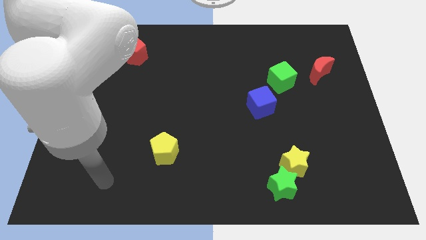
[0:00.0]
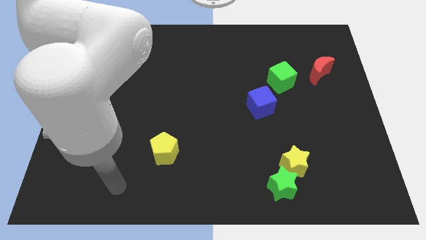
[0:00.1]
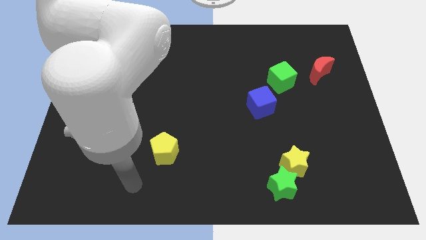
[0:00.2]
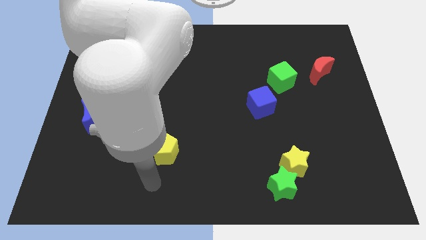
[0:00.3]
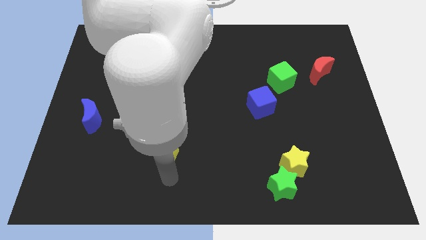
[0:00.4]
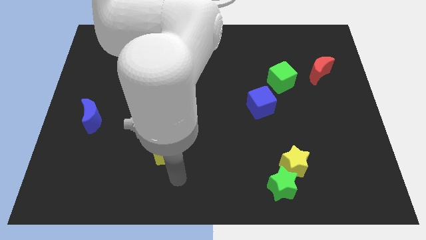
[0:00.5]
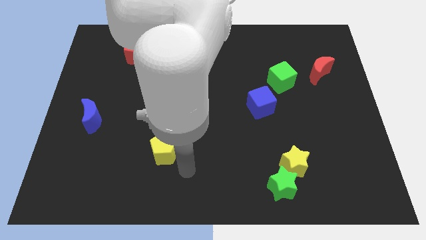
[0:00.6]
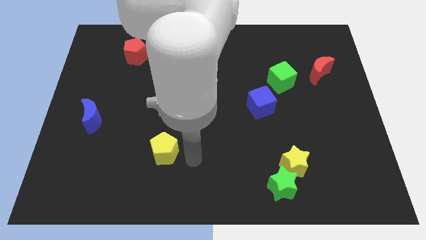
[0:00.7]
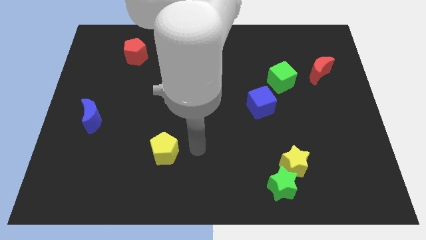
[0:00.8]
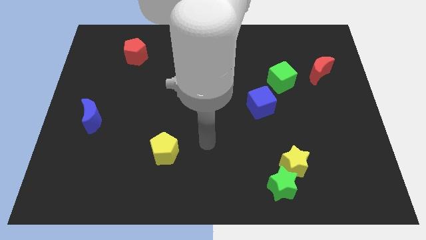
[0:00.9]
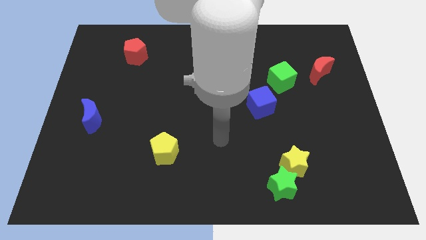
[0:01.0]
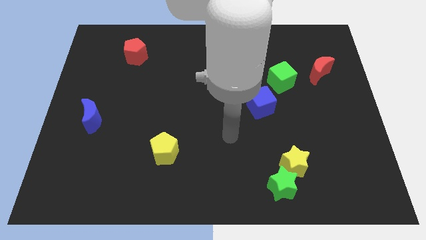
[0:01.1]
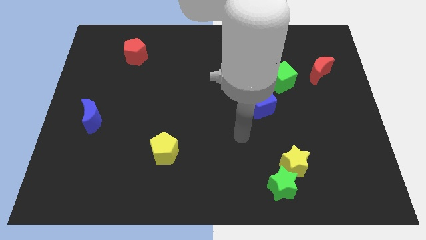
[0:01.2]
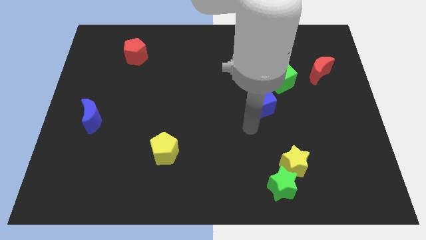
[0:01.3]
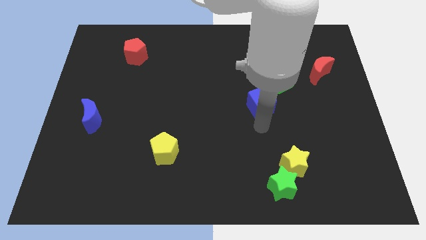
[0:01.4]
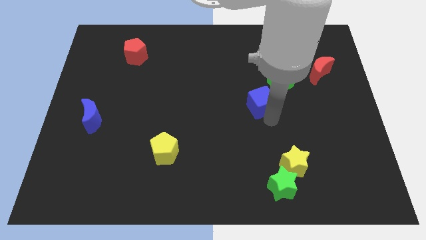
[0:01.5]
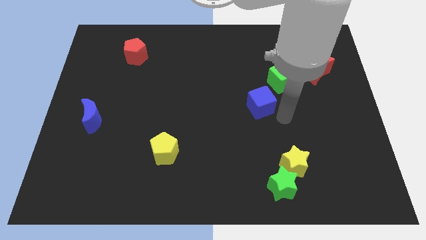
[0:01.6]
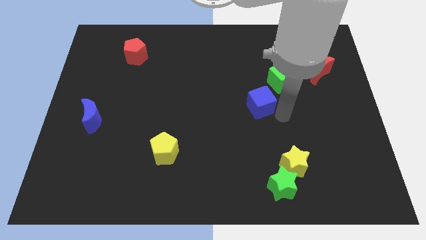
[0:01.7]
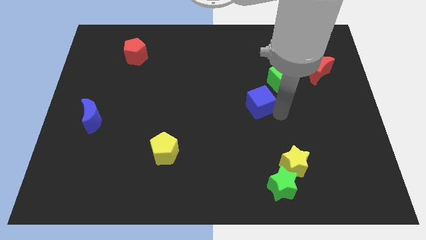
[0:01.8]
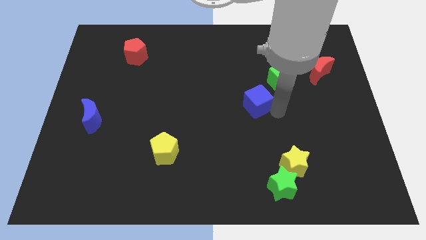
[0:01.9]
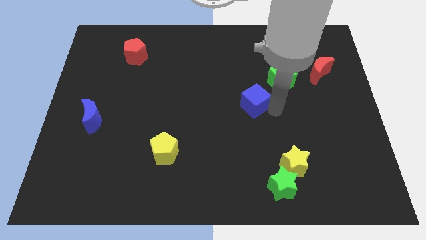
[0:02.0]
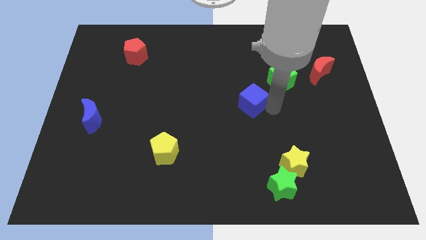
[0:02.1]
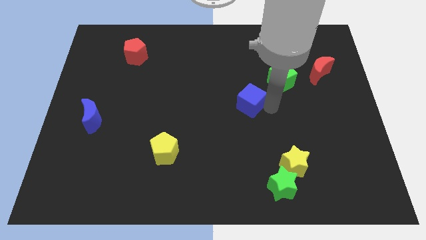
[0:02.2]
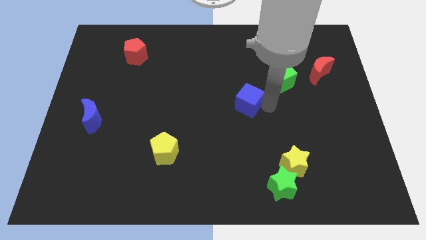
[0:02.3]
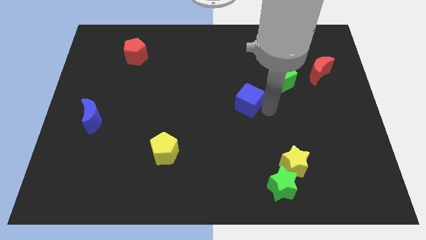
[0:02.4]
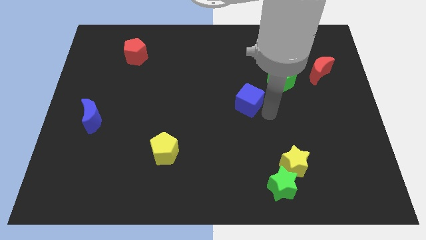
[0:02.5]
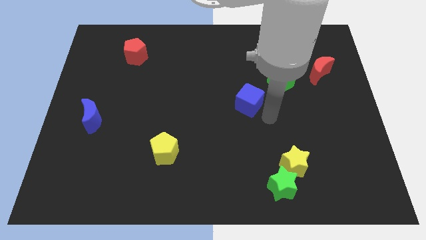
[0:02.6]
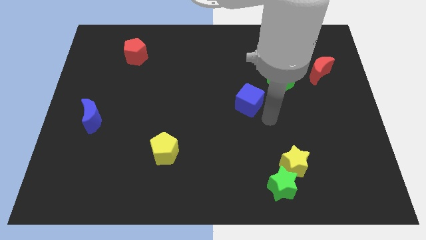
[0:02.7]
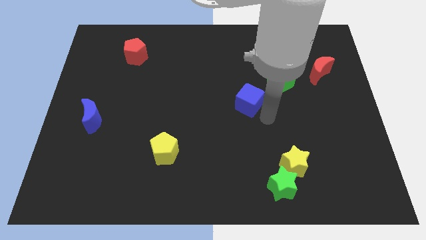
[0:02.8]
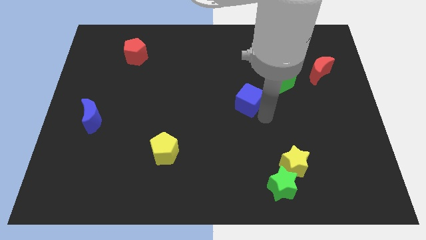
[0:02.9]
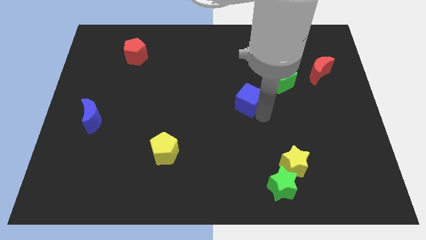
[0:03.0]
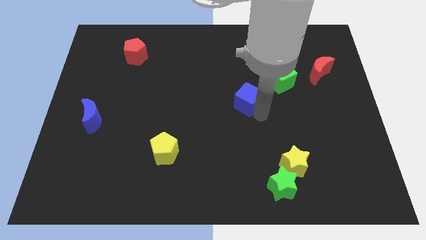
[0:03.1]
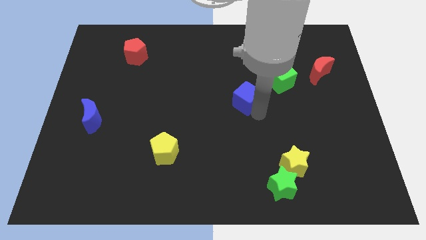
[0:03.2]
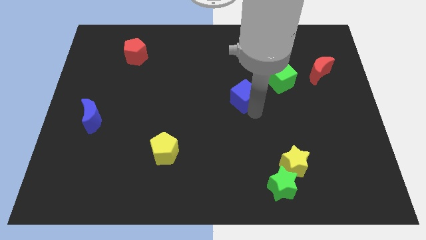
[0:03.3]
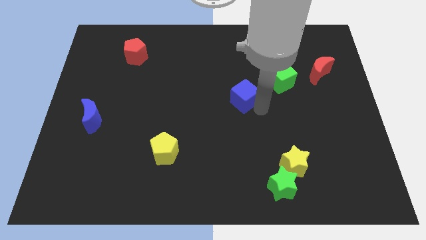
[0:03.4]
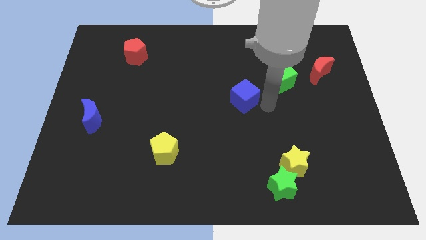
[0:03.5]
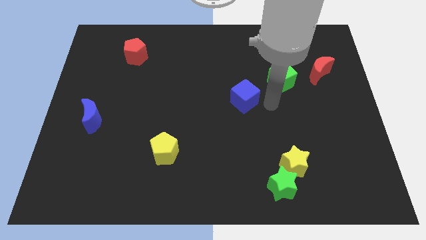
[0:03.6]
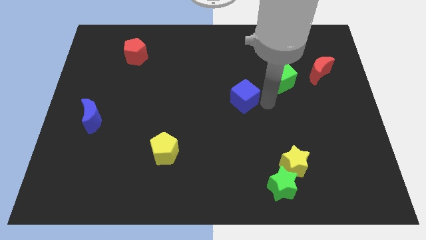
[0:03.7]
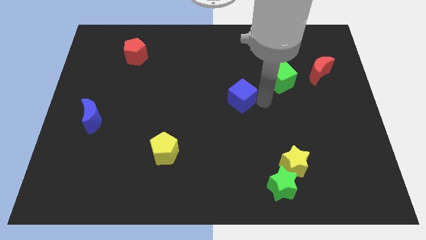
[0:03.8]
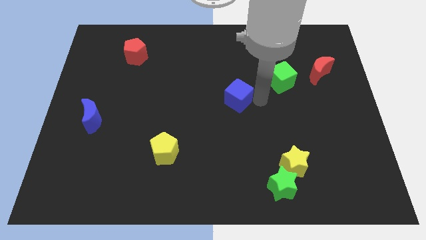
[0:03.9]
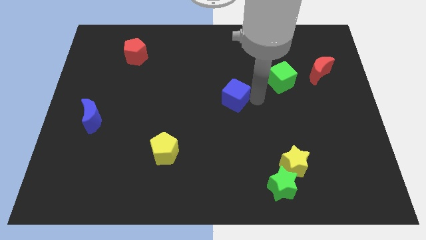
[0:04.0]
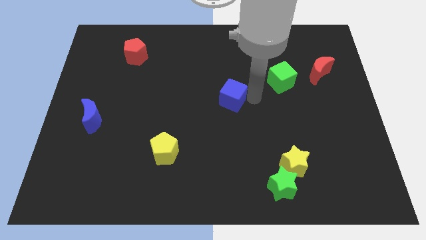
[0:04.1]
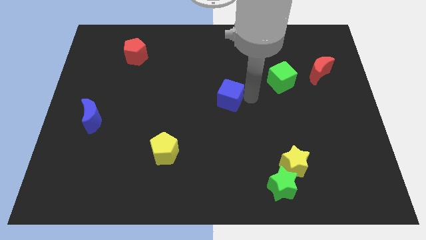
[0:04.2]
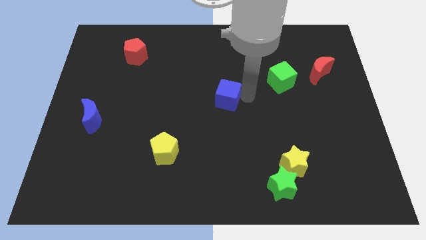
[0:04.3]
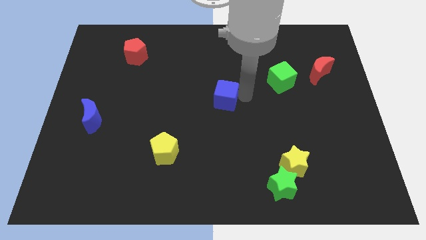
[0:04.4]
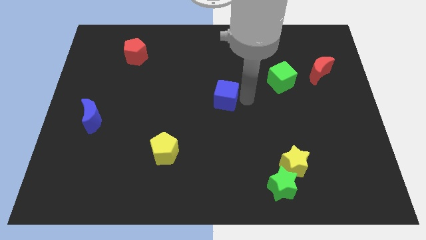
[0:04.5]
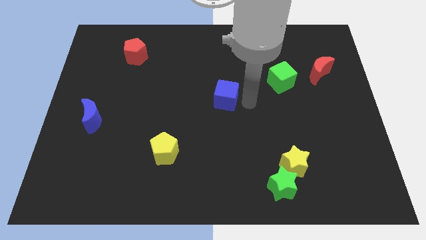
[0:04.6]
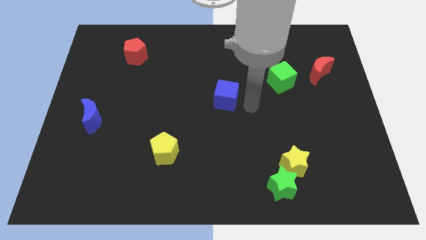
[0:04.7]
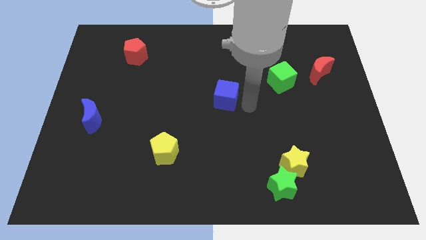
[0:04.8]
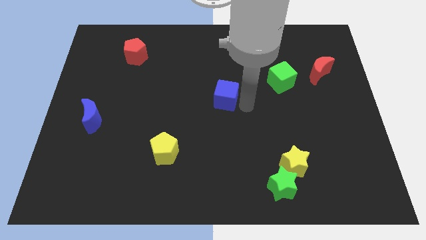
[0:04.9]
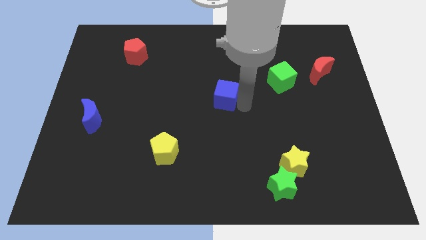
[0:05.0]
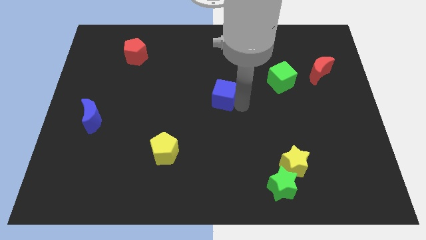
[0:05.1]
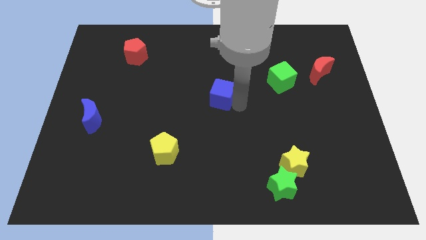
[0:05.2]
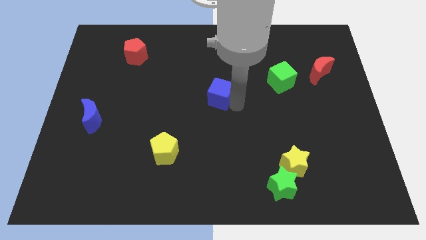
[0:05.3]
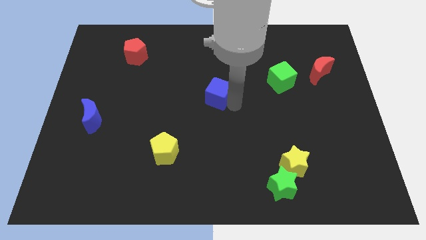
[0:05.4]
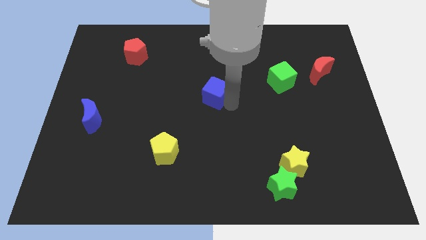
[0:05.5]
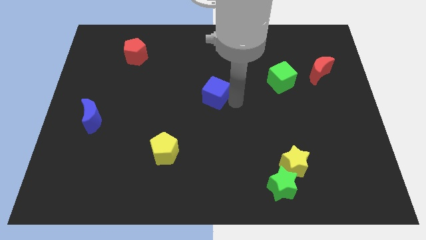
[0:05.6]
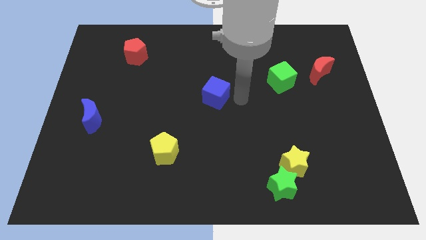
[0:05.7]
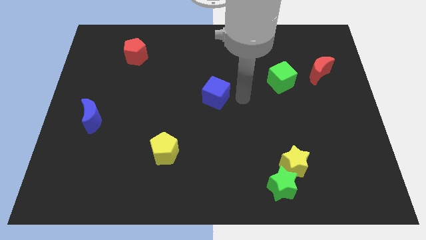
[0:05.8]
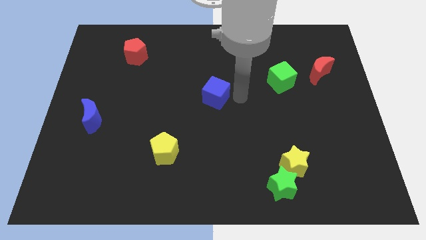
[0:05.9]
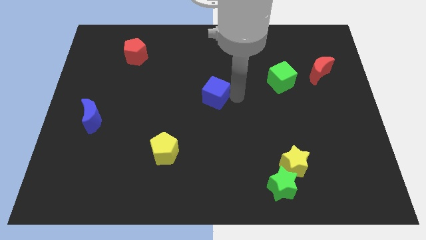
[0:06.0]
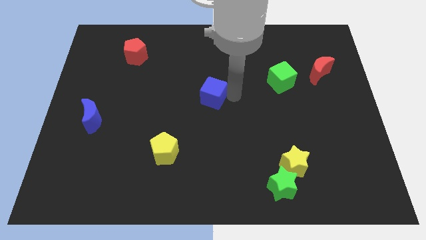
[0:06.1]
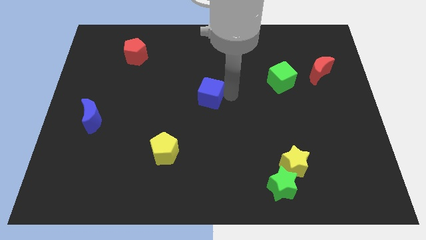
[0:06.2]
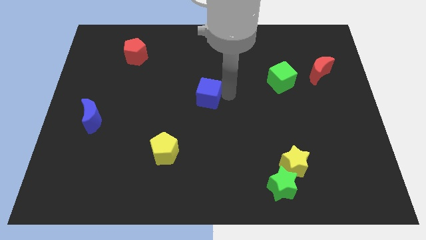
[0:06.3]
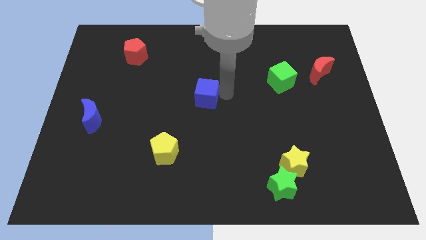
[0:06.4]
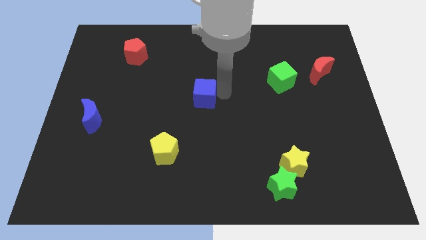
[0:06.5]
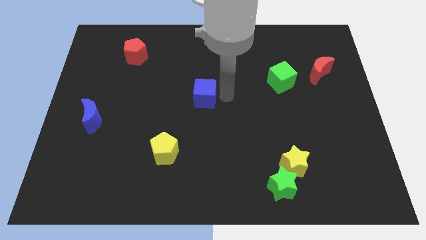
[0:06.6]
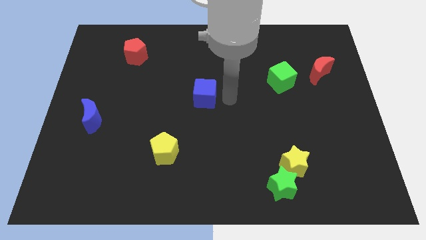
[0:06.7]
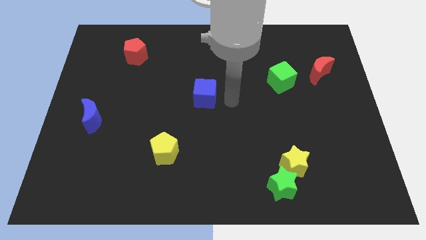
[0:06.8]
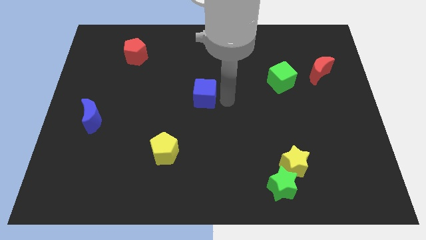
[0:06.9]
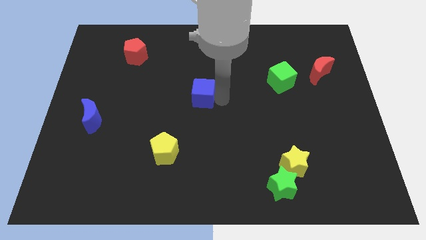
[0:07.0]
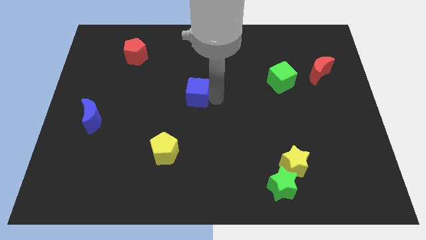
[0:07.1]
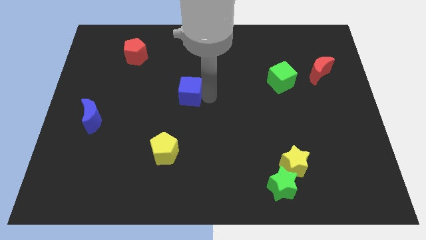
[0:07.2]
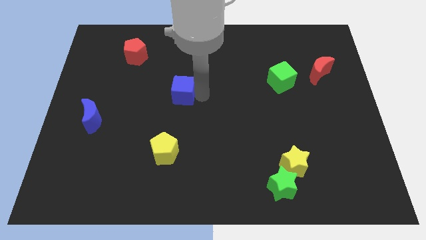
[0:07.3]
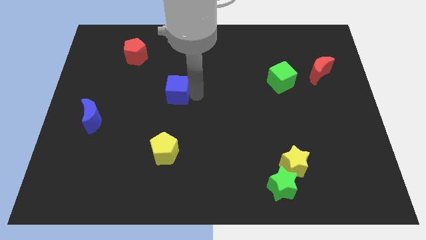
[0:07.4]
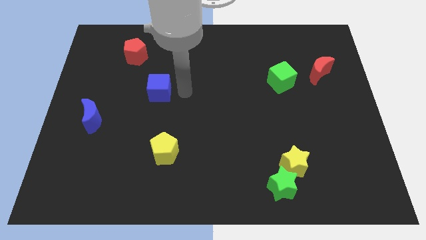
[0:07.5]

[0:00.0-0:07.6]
slide the blue cube to the left

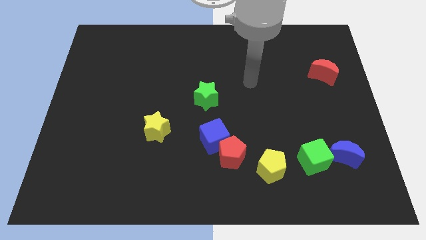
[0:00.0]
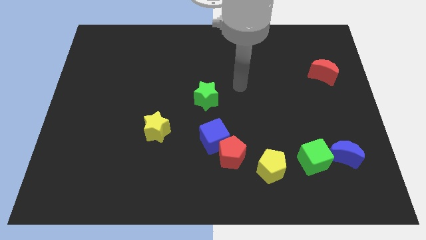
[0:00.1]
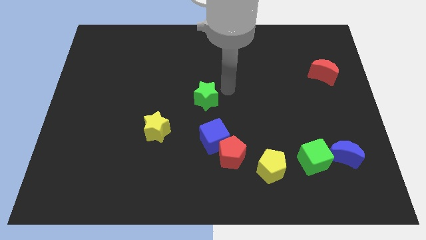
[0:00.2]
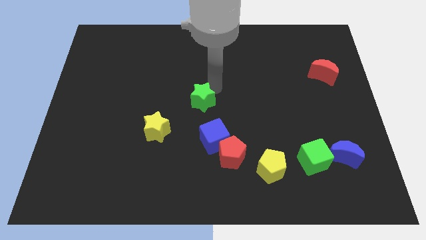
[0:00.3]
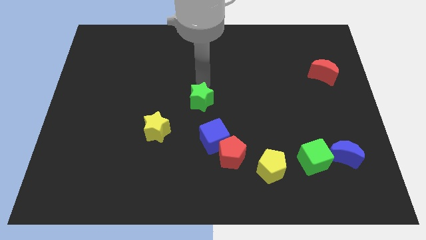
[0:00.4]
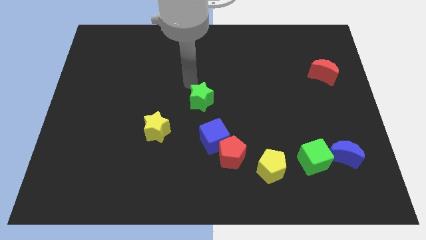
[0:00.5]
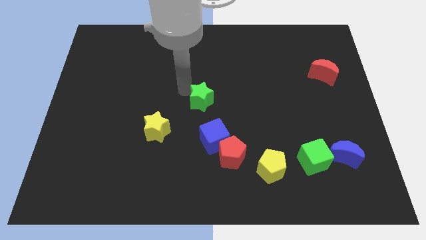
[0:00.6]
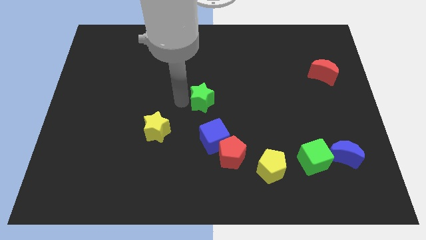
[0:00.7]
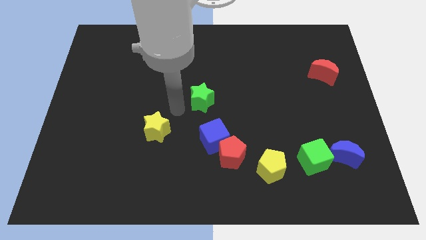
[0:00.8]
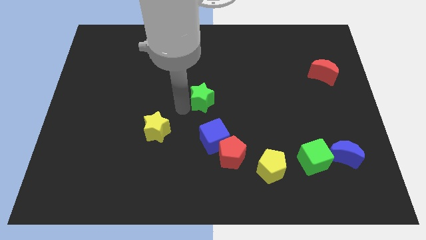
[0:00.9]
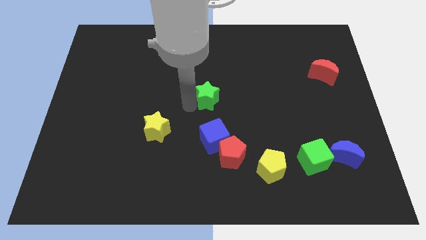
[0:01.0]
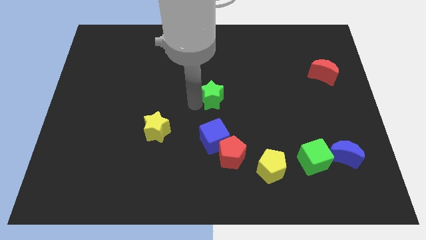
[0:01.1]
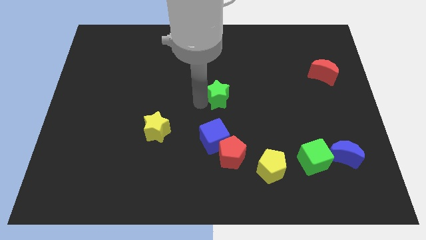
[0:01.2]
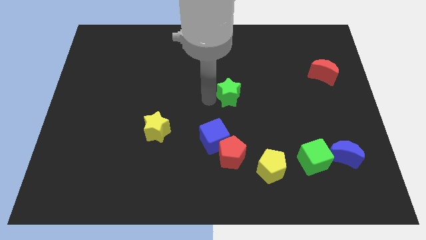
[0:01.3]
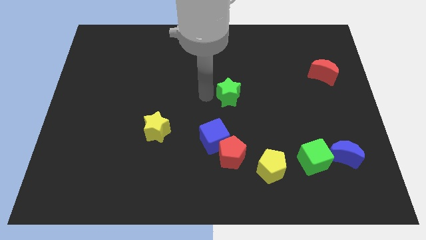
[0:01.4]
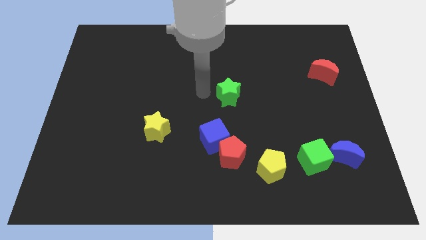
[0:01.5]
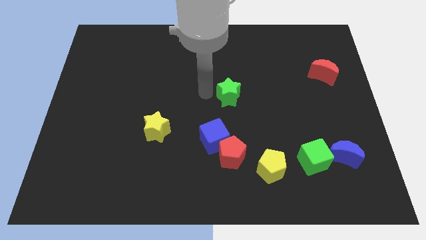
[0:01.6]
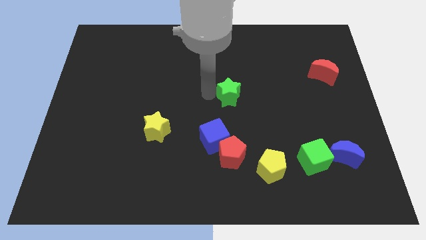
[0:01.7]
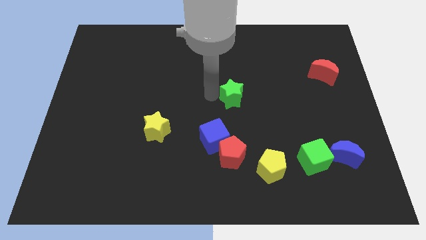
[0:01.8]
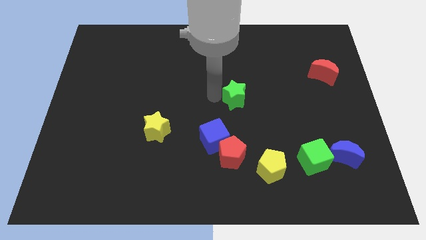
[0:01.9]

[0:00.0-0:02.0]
push the green star to the right somewhat
